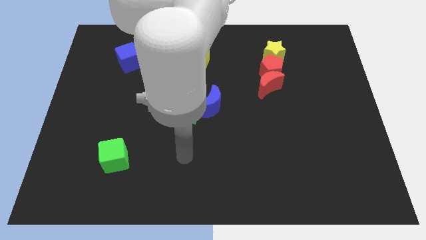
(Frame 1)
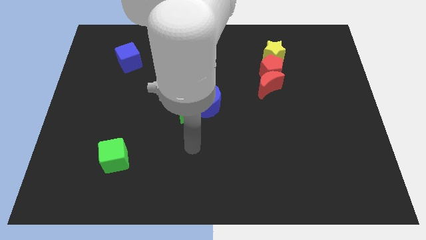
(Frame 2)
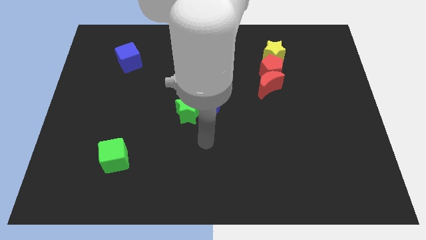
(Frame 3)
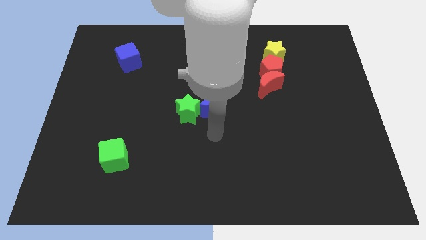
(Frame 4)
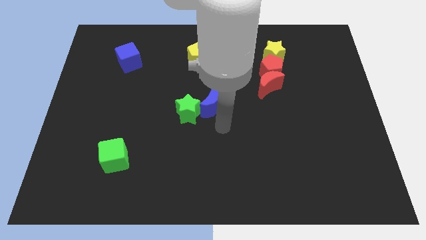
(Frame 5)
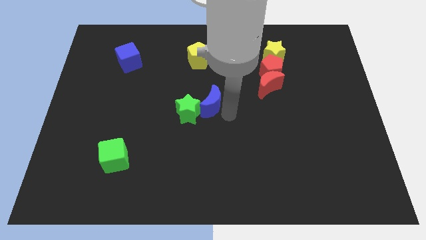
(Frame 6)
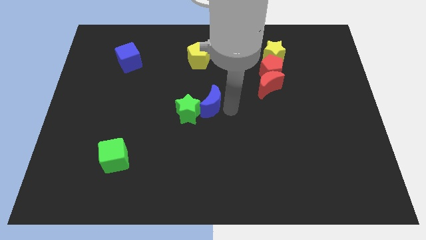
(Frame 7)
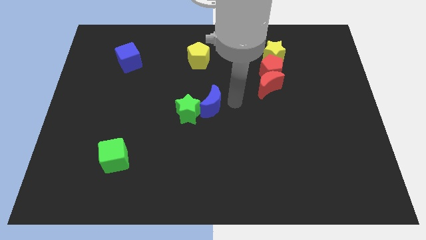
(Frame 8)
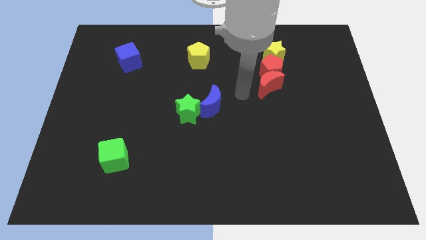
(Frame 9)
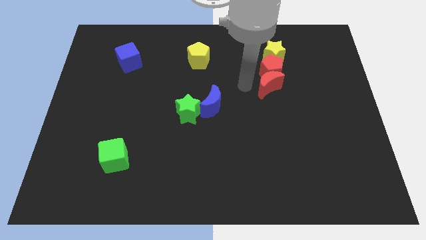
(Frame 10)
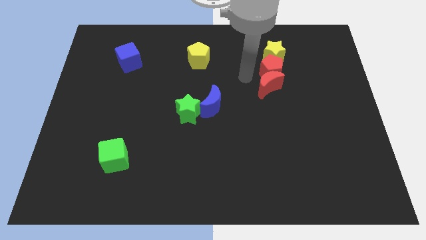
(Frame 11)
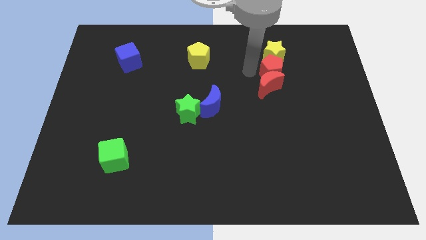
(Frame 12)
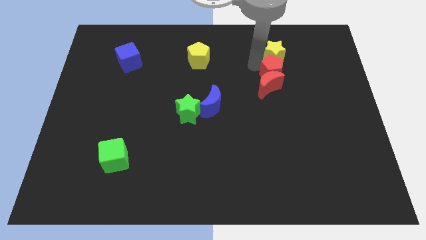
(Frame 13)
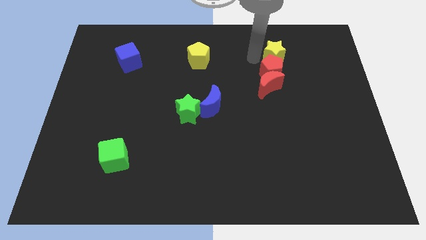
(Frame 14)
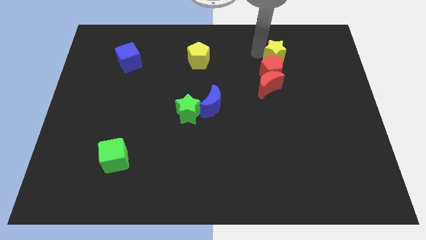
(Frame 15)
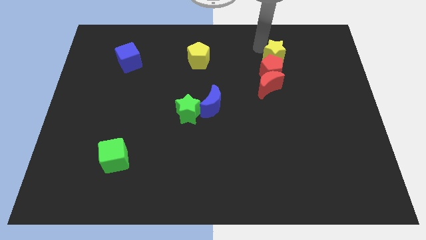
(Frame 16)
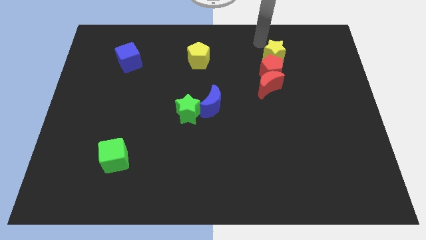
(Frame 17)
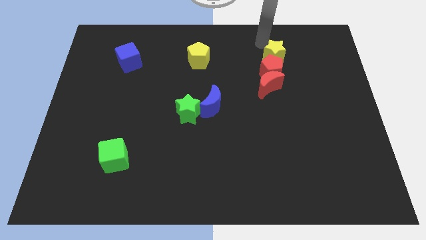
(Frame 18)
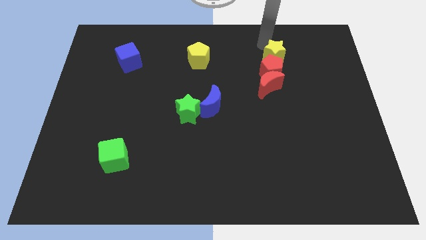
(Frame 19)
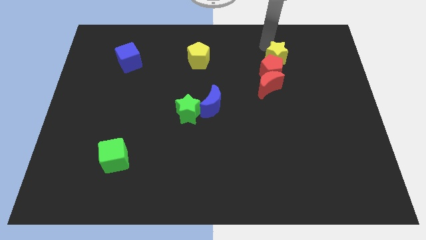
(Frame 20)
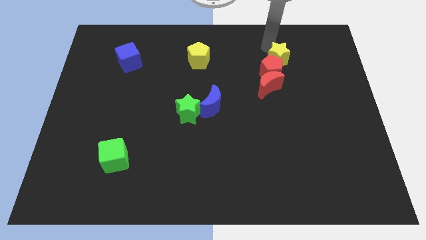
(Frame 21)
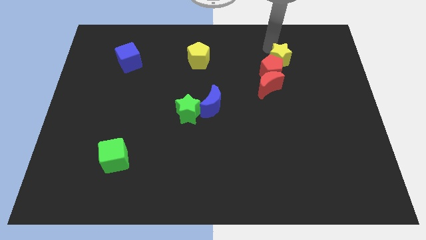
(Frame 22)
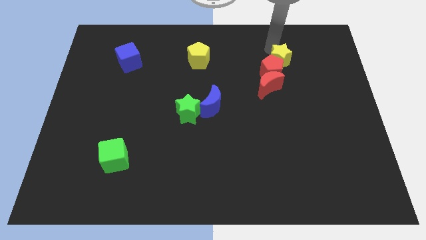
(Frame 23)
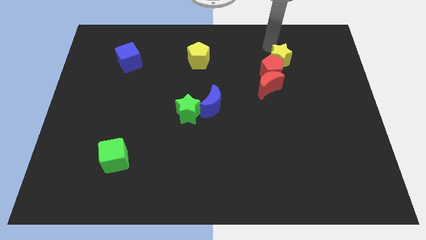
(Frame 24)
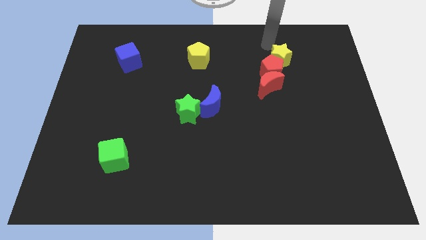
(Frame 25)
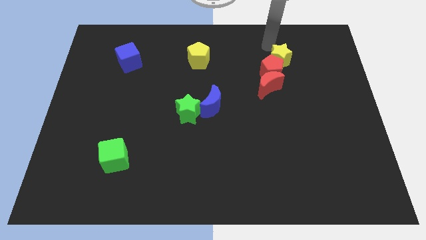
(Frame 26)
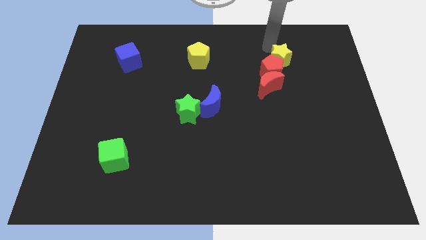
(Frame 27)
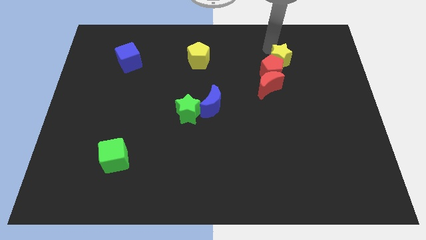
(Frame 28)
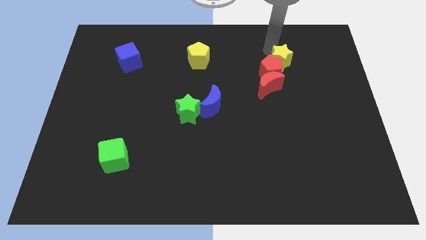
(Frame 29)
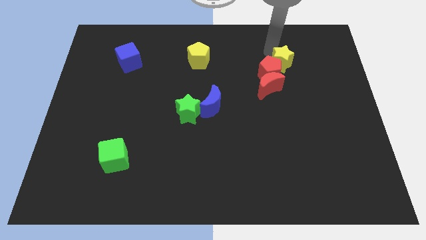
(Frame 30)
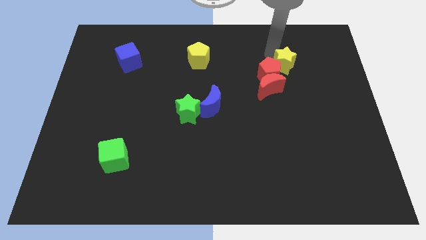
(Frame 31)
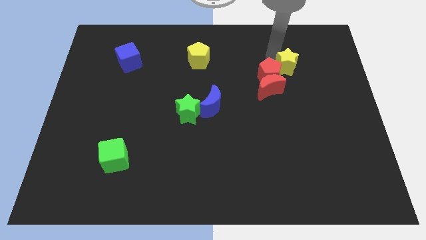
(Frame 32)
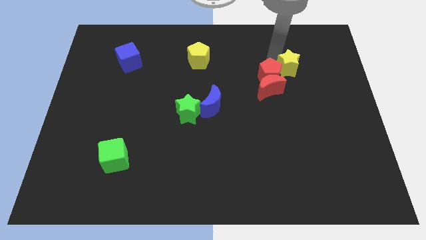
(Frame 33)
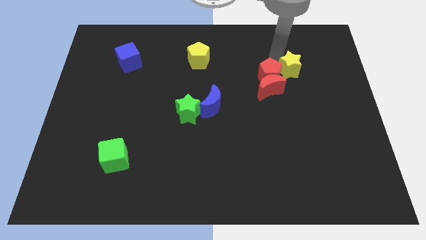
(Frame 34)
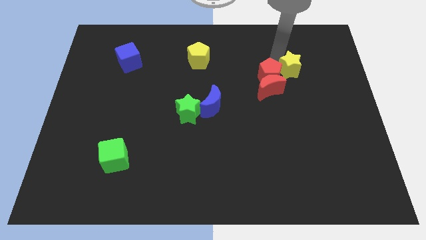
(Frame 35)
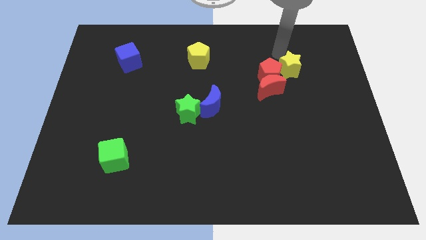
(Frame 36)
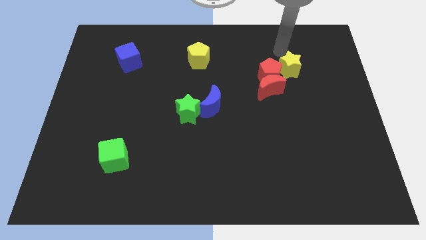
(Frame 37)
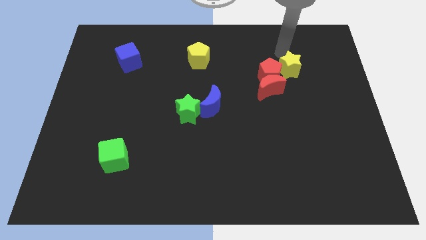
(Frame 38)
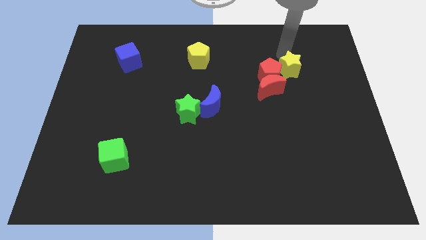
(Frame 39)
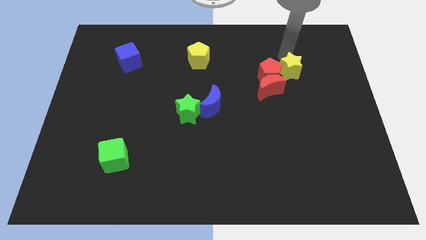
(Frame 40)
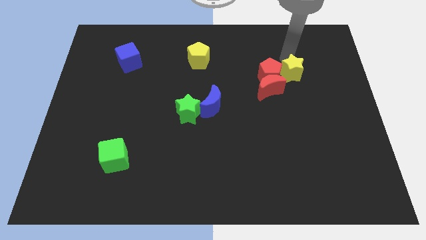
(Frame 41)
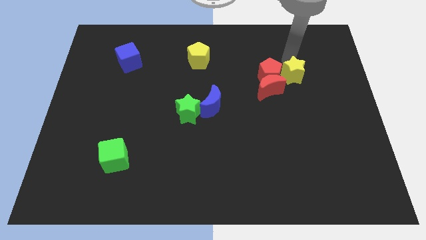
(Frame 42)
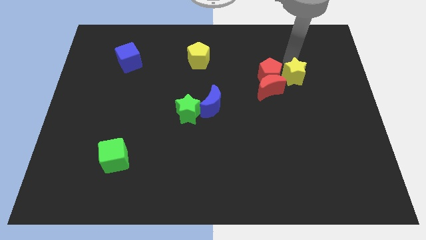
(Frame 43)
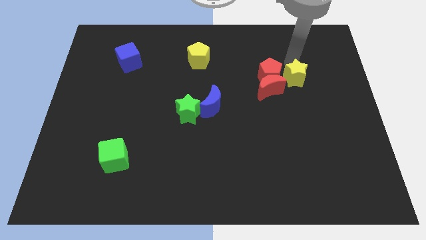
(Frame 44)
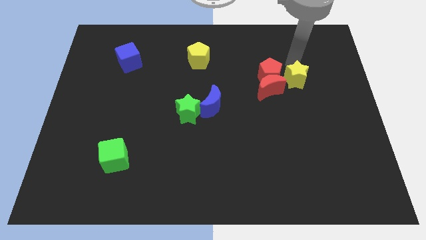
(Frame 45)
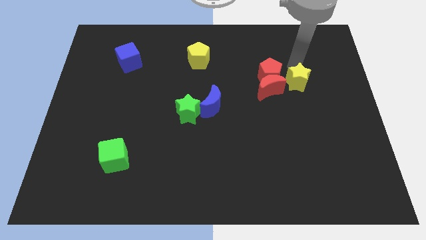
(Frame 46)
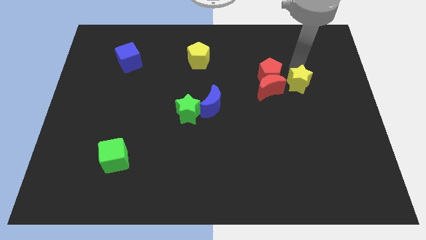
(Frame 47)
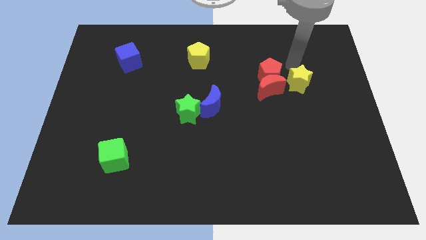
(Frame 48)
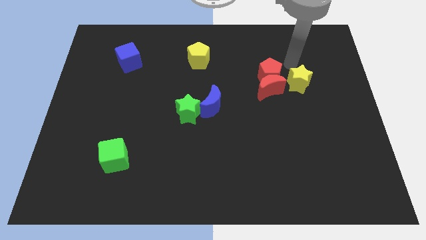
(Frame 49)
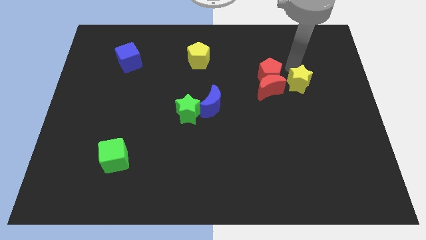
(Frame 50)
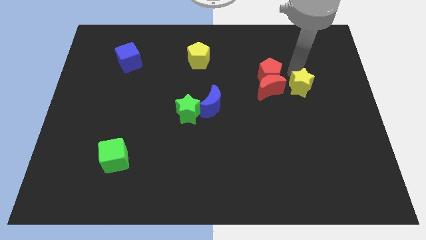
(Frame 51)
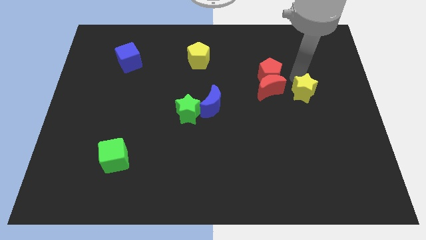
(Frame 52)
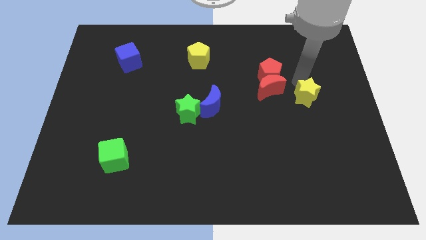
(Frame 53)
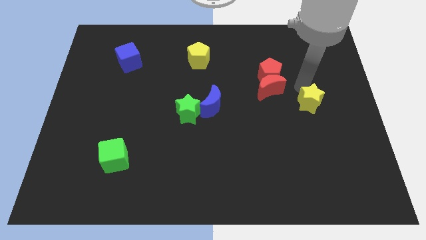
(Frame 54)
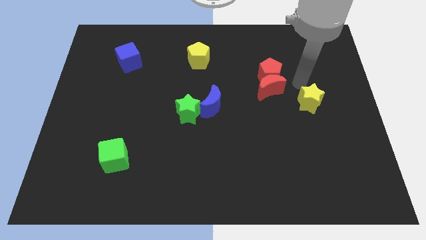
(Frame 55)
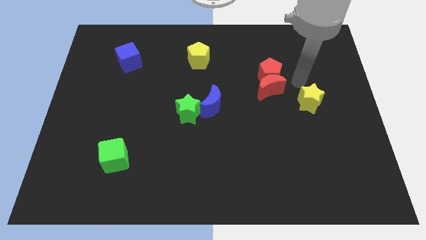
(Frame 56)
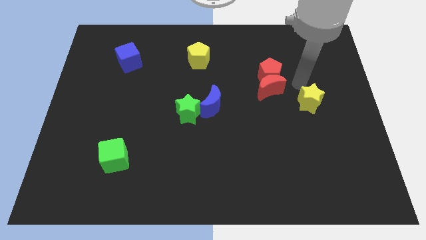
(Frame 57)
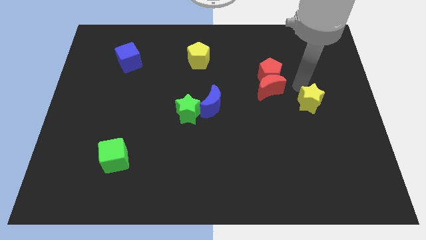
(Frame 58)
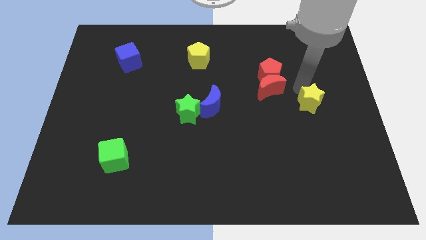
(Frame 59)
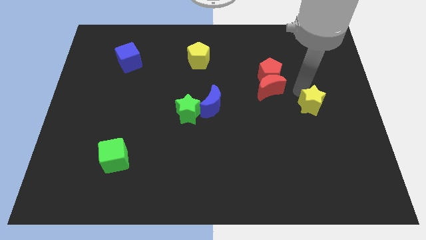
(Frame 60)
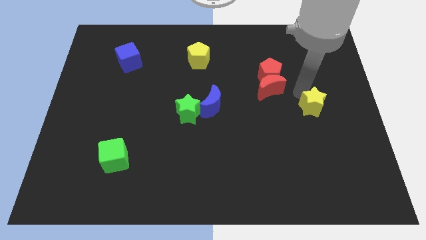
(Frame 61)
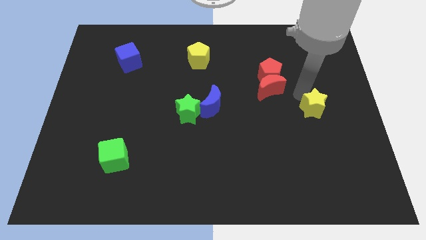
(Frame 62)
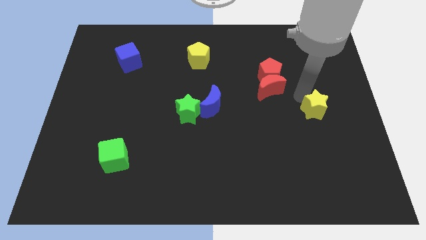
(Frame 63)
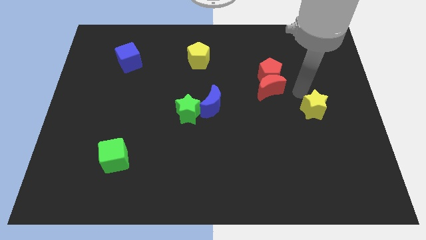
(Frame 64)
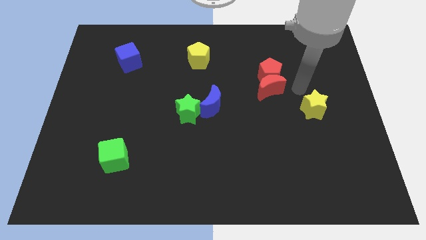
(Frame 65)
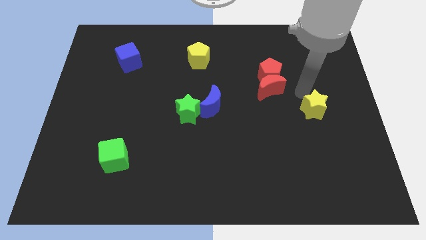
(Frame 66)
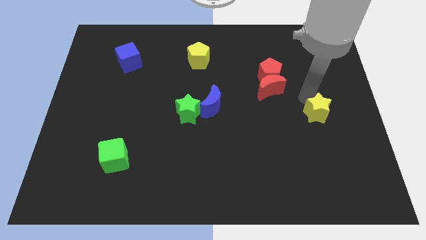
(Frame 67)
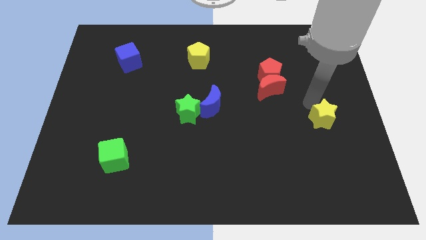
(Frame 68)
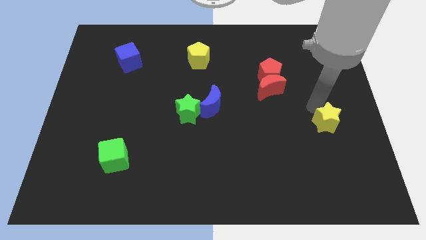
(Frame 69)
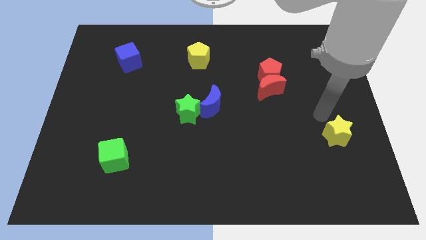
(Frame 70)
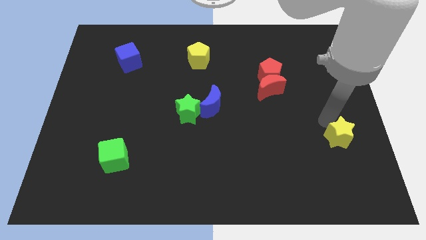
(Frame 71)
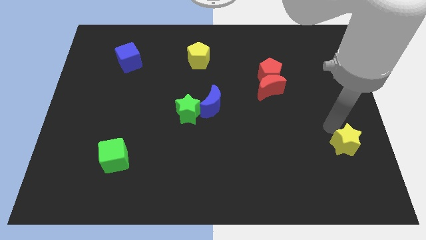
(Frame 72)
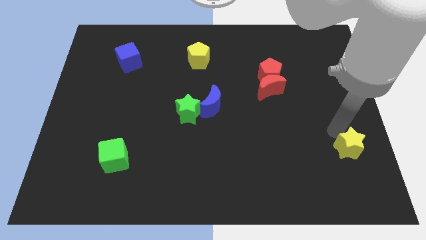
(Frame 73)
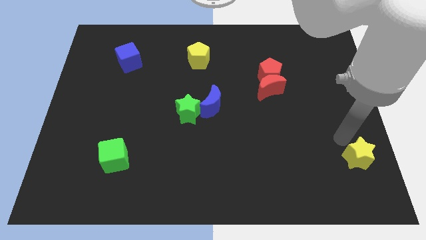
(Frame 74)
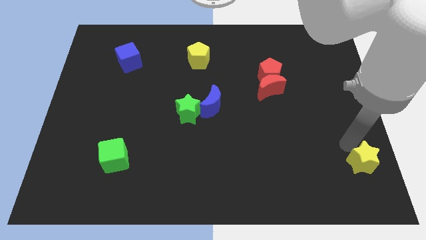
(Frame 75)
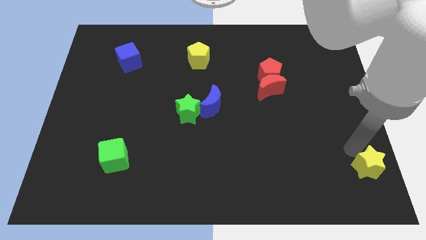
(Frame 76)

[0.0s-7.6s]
move the yellow star to the bottom right

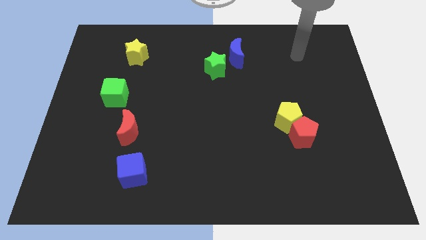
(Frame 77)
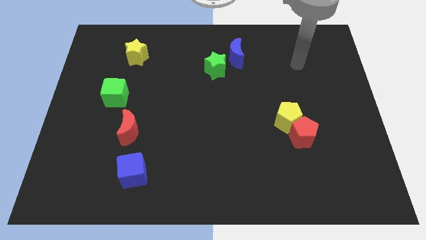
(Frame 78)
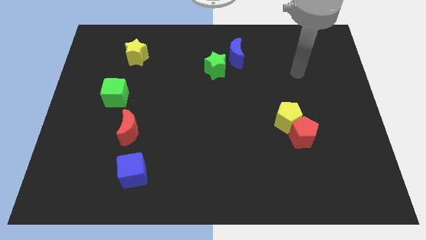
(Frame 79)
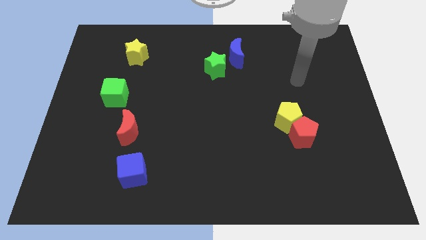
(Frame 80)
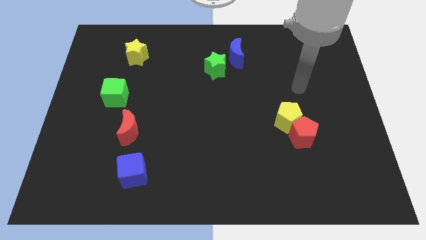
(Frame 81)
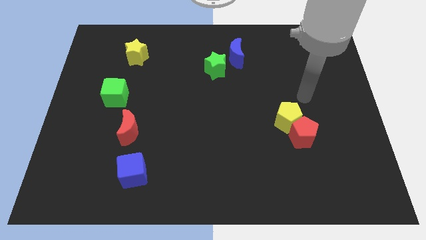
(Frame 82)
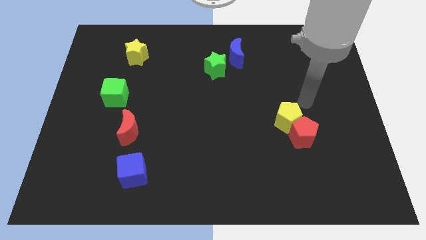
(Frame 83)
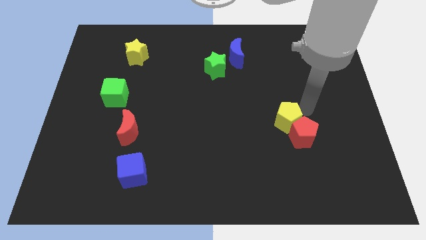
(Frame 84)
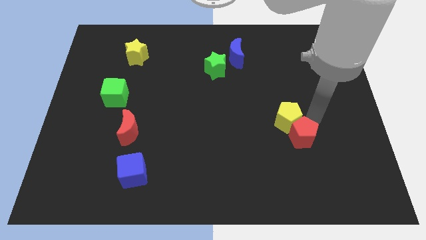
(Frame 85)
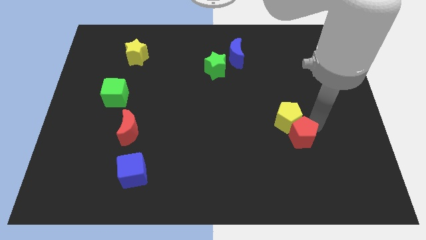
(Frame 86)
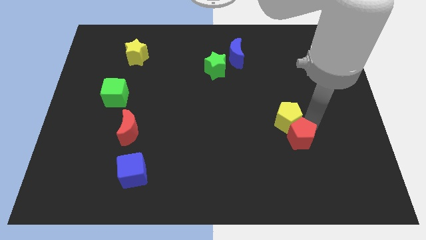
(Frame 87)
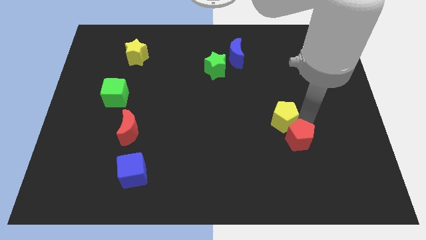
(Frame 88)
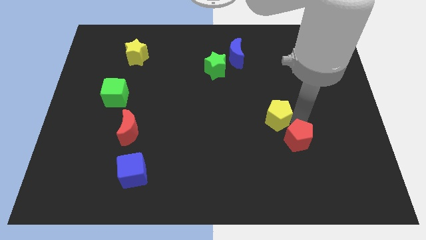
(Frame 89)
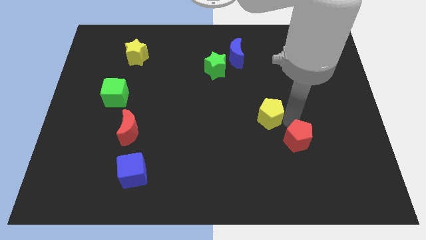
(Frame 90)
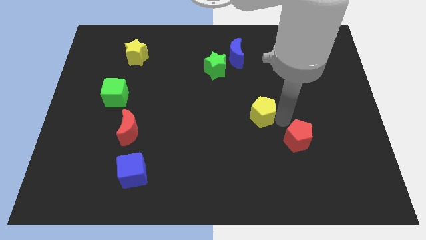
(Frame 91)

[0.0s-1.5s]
put the yellow pentagon to the center of the board
